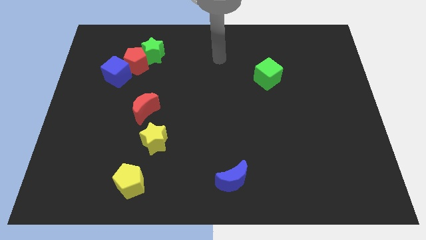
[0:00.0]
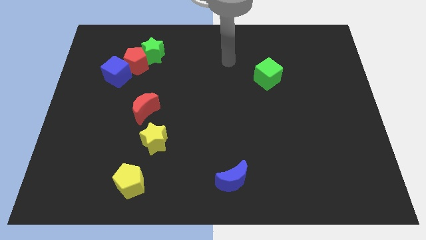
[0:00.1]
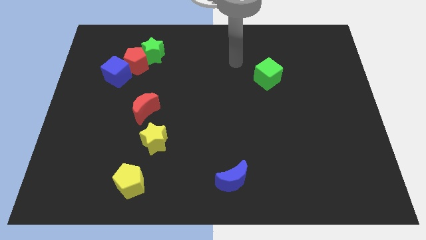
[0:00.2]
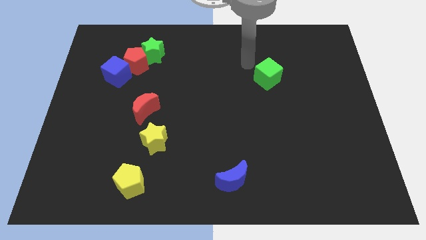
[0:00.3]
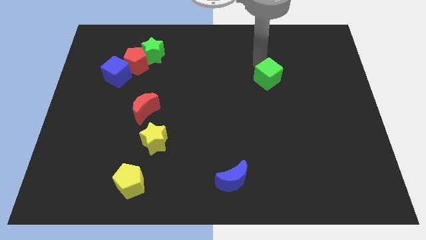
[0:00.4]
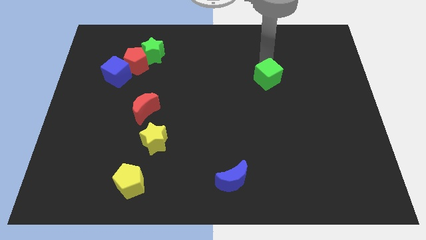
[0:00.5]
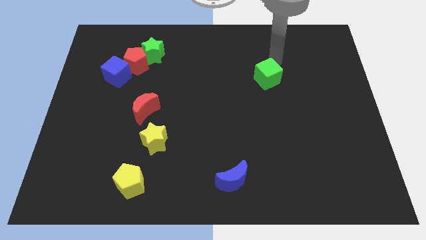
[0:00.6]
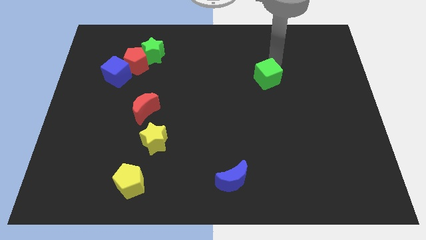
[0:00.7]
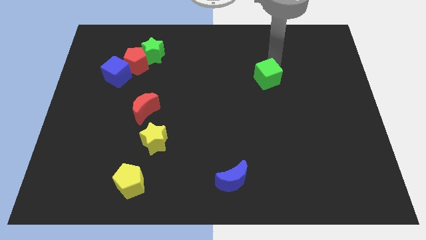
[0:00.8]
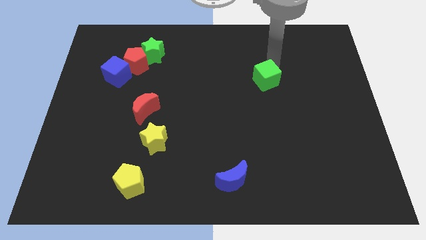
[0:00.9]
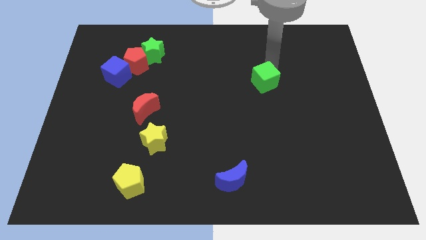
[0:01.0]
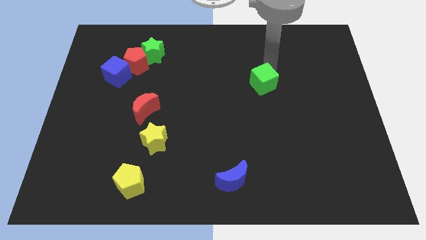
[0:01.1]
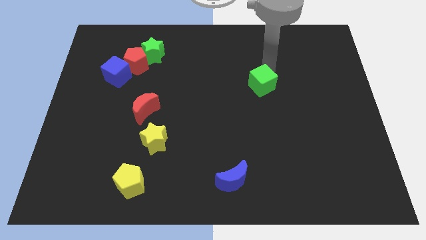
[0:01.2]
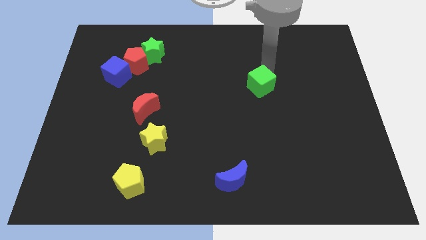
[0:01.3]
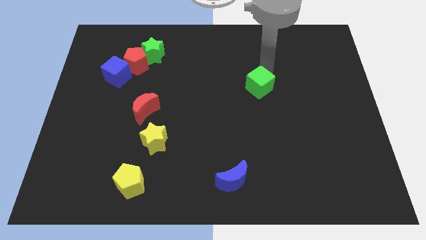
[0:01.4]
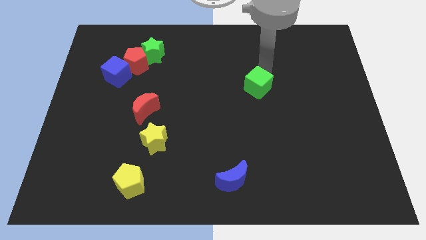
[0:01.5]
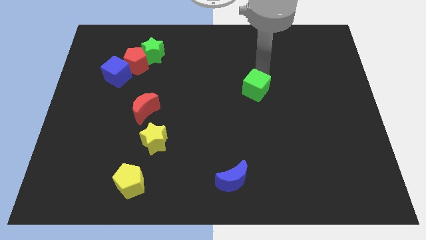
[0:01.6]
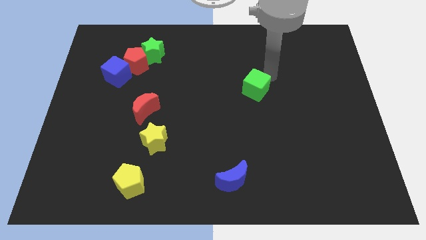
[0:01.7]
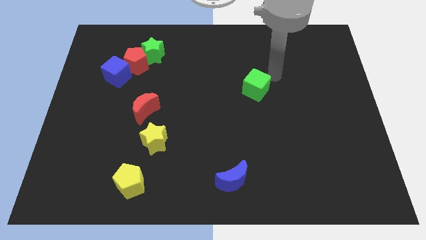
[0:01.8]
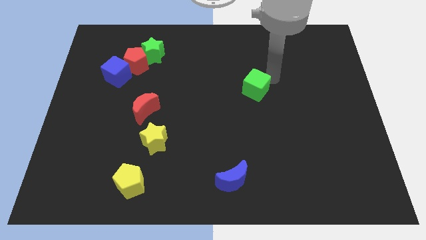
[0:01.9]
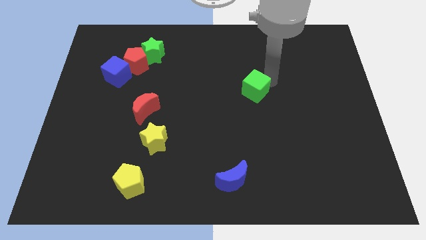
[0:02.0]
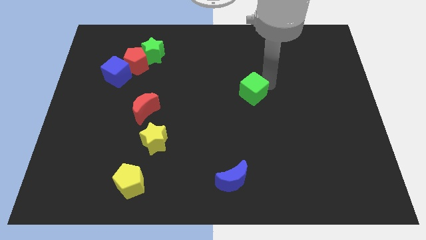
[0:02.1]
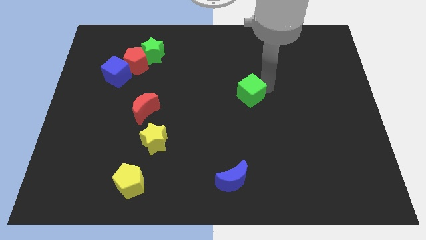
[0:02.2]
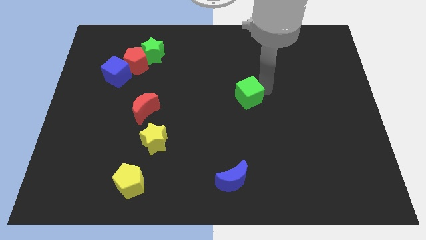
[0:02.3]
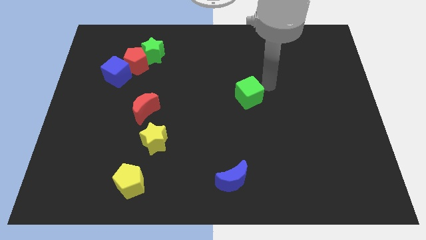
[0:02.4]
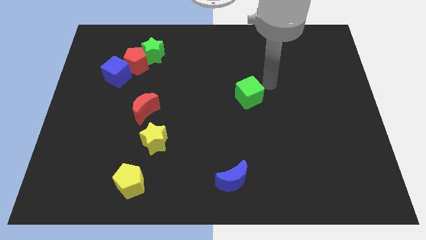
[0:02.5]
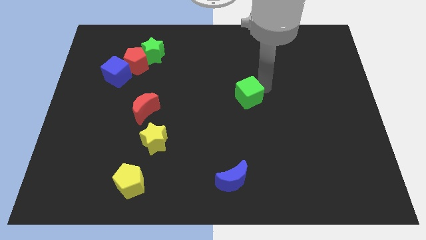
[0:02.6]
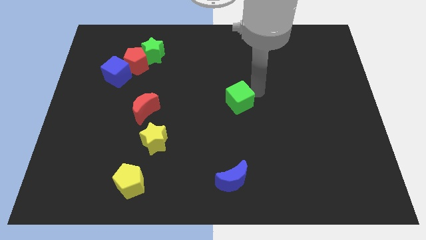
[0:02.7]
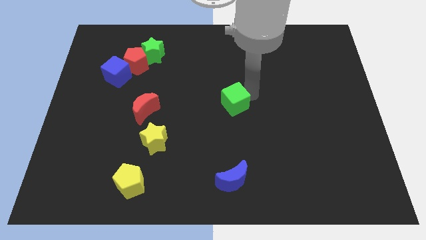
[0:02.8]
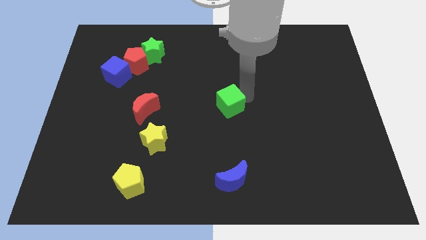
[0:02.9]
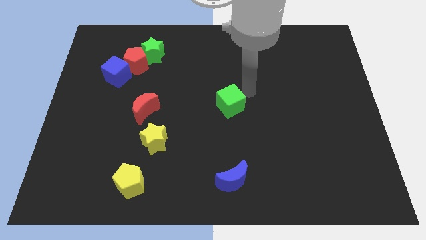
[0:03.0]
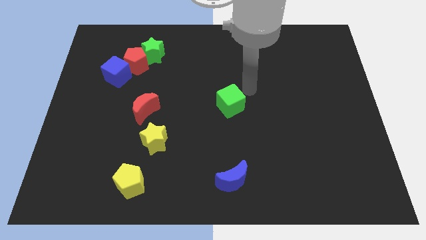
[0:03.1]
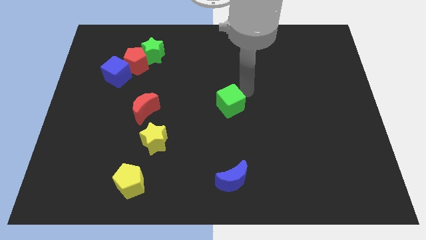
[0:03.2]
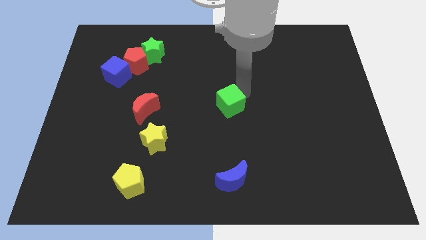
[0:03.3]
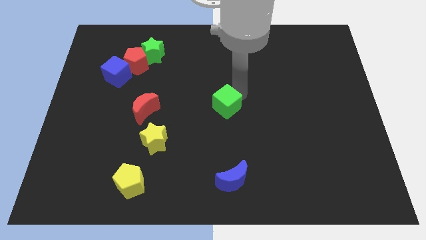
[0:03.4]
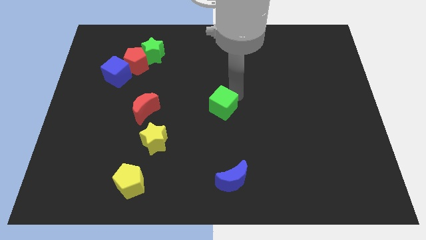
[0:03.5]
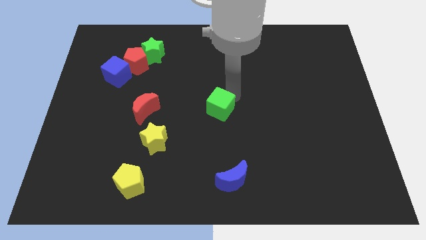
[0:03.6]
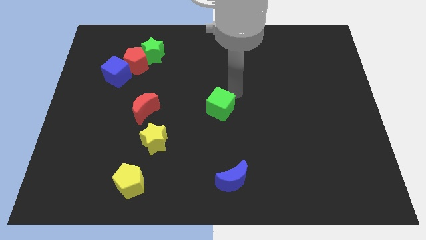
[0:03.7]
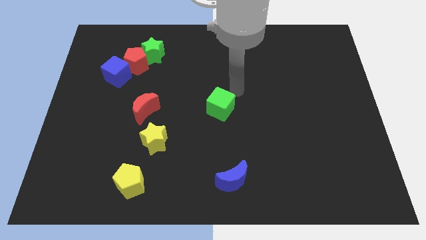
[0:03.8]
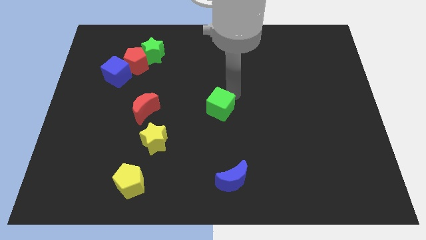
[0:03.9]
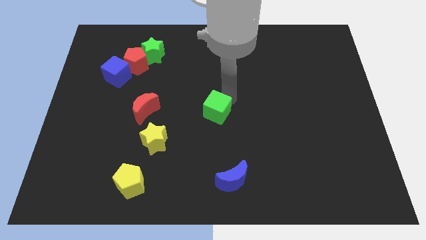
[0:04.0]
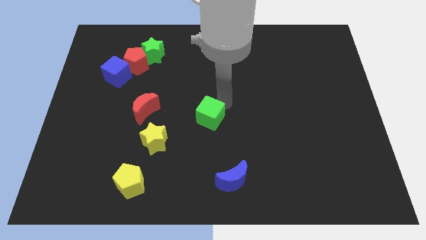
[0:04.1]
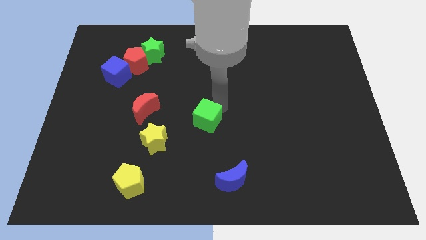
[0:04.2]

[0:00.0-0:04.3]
slide the green cube down and left

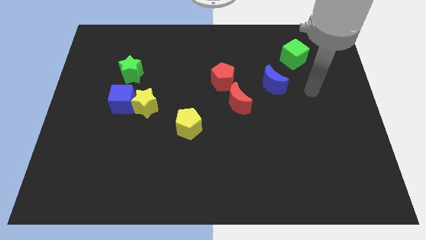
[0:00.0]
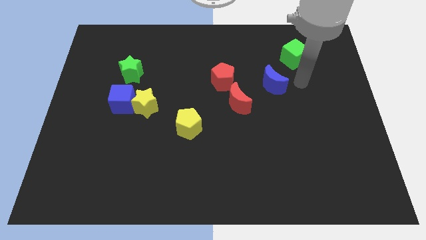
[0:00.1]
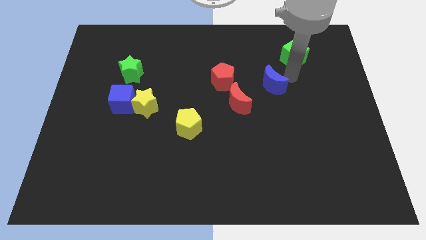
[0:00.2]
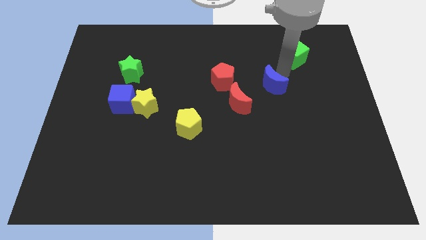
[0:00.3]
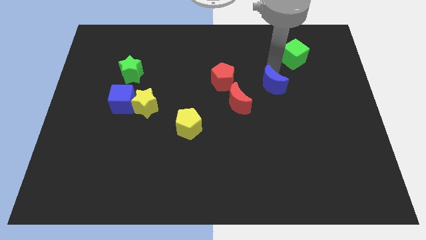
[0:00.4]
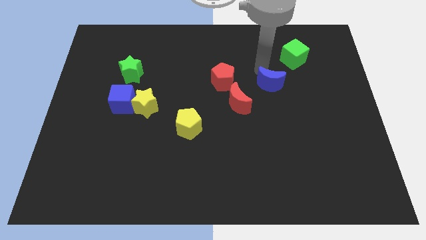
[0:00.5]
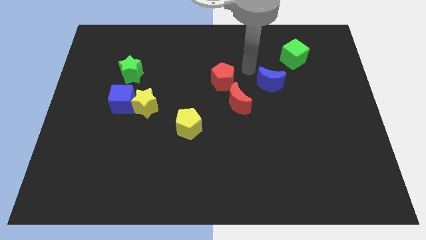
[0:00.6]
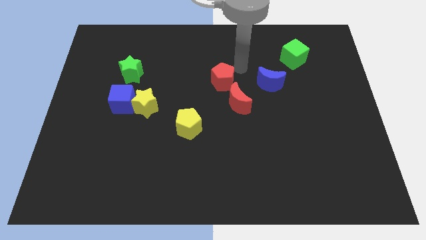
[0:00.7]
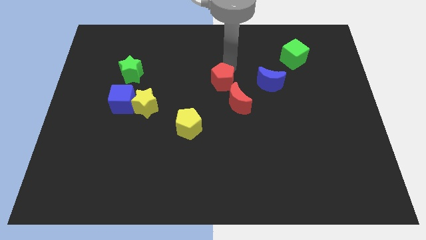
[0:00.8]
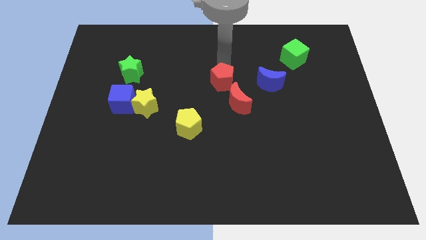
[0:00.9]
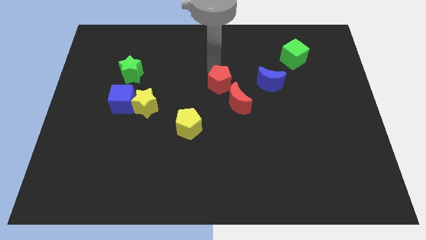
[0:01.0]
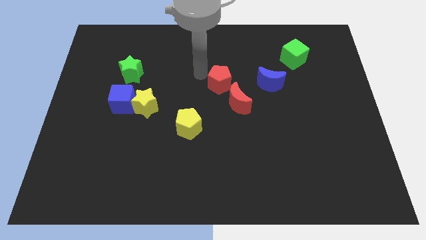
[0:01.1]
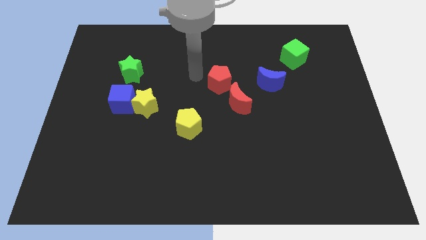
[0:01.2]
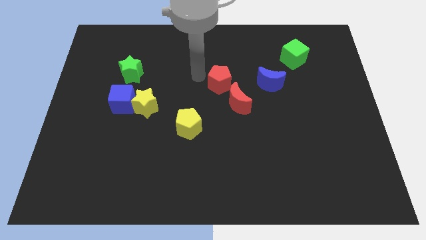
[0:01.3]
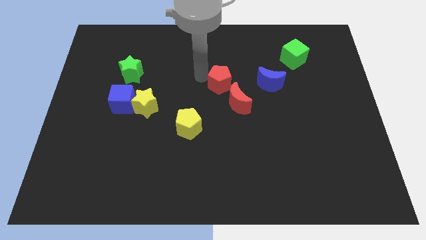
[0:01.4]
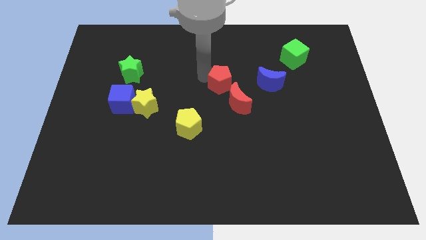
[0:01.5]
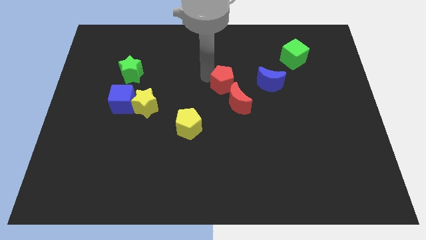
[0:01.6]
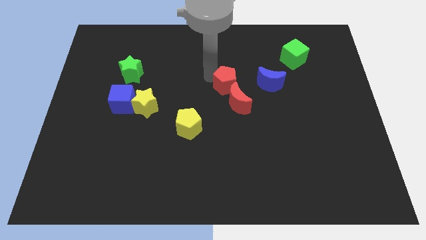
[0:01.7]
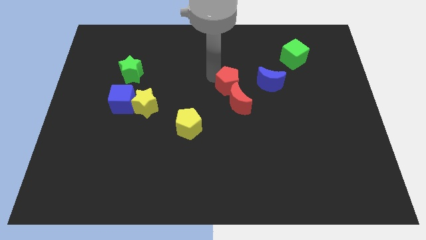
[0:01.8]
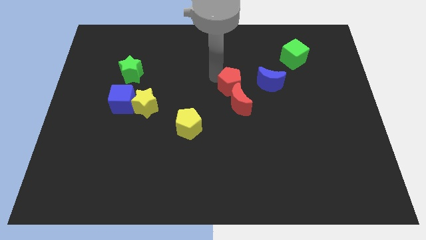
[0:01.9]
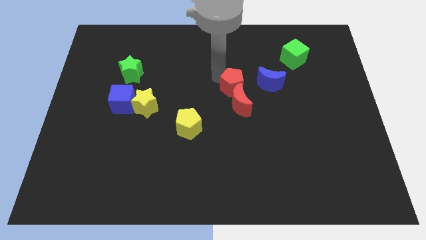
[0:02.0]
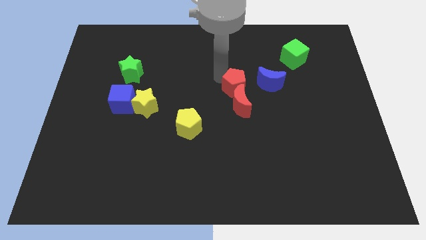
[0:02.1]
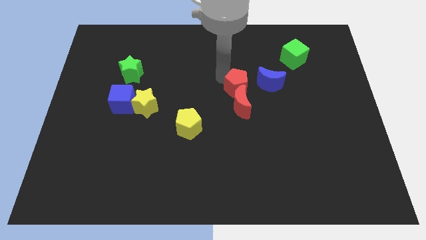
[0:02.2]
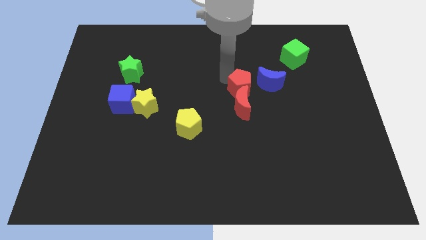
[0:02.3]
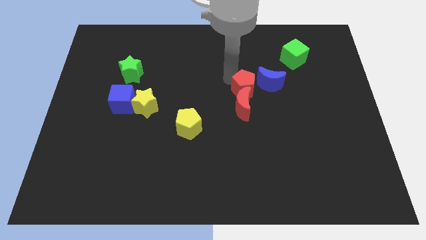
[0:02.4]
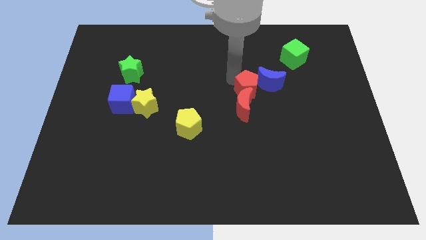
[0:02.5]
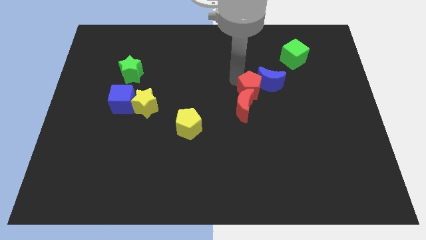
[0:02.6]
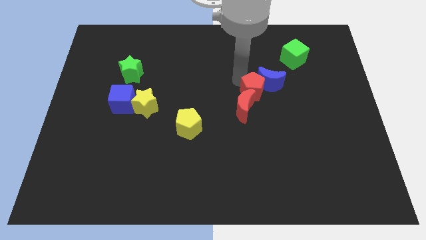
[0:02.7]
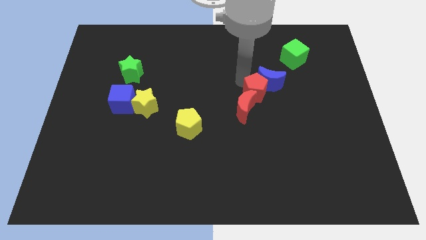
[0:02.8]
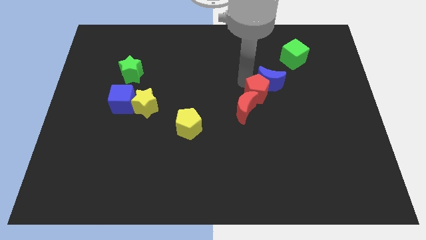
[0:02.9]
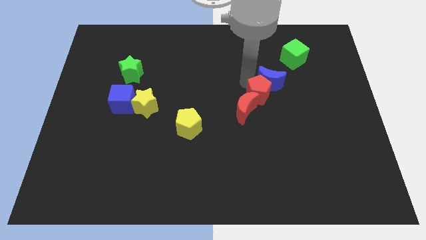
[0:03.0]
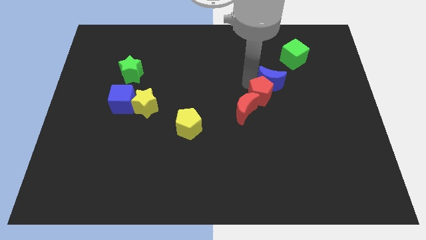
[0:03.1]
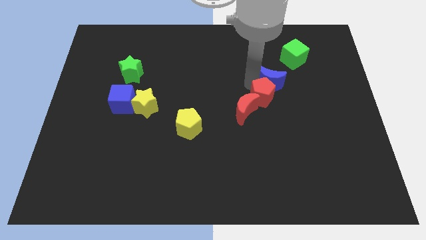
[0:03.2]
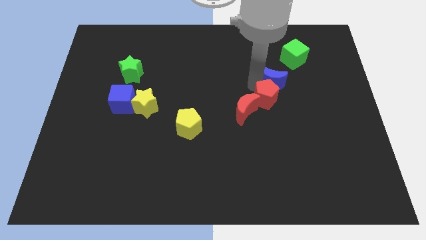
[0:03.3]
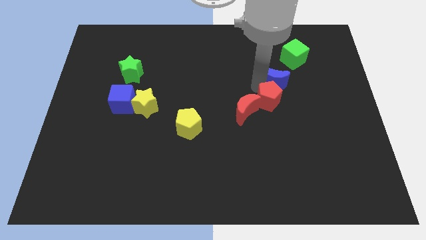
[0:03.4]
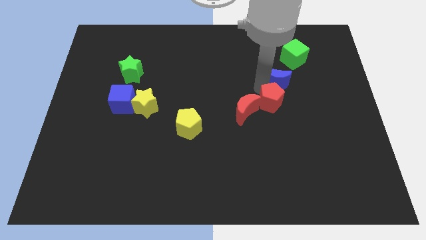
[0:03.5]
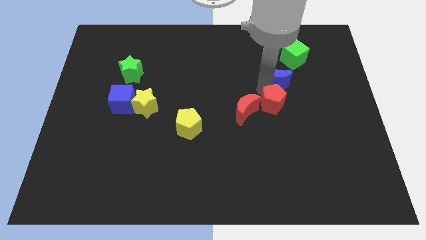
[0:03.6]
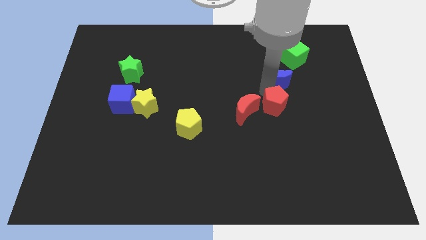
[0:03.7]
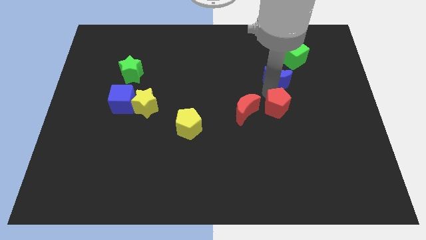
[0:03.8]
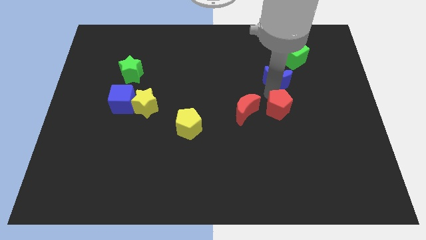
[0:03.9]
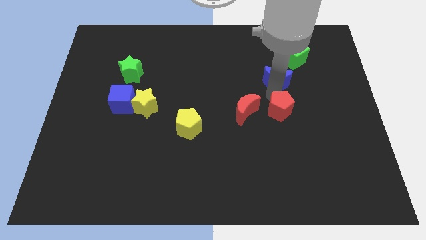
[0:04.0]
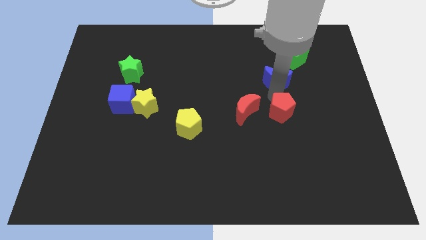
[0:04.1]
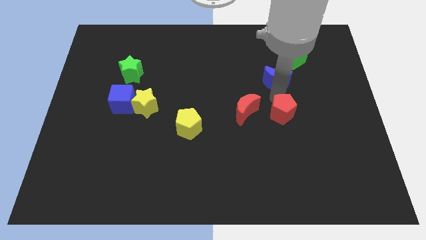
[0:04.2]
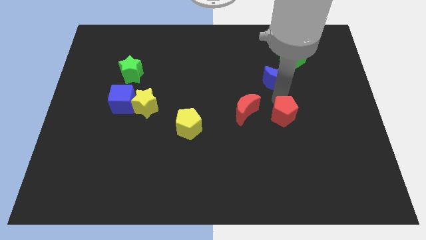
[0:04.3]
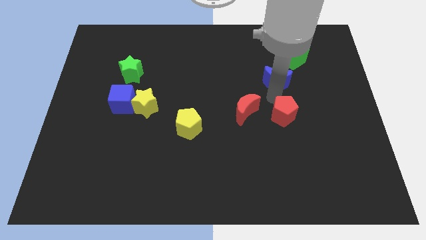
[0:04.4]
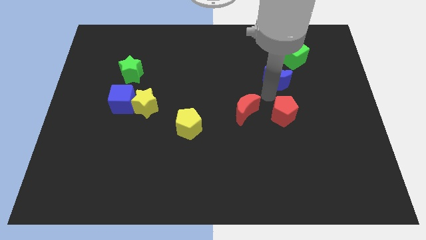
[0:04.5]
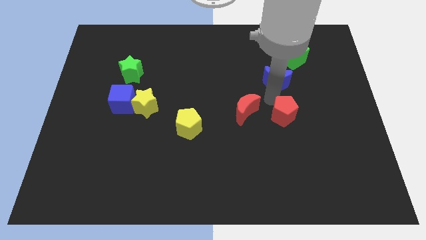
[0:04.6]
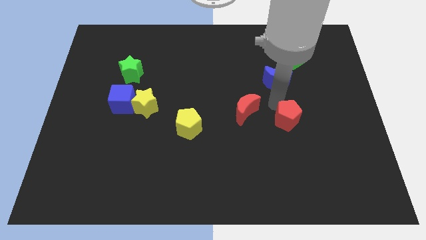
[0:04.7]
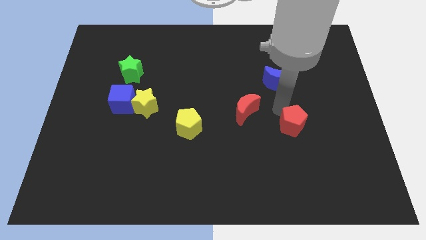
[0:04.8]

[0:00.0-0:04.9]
push the red pentagon down and right
